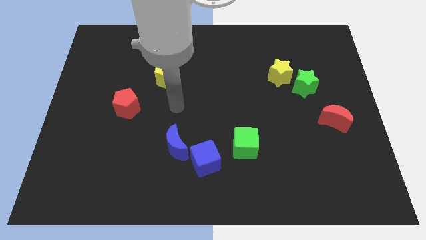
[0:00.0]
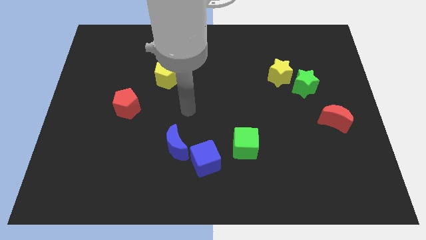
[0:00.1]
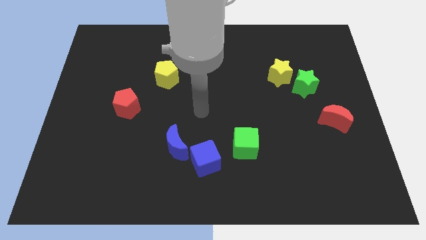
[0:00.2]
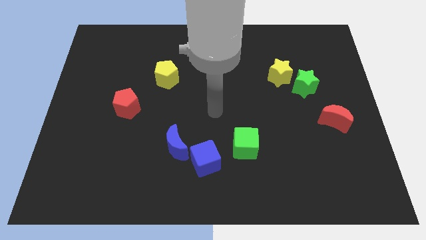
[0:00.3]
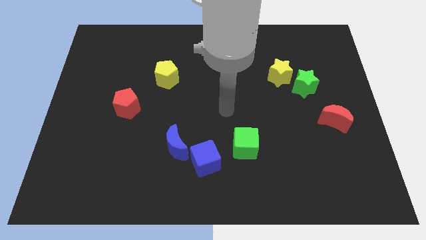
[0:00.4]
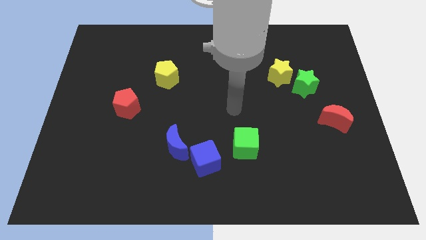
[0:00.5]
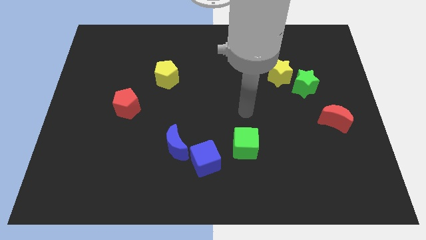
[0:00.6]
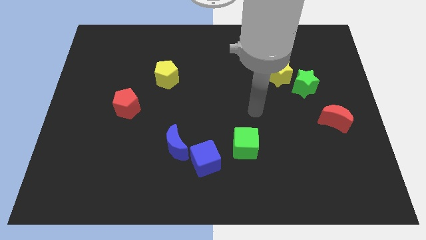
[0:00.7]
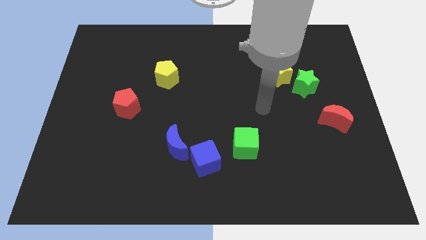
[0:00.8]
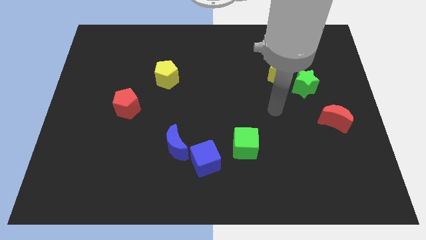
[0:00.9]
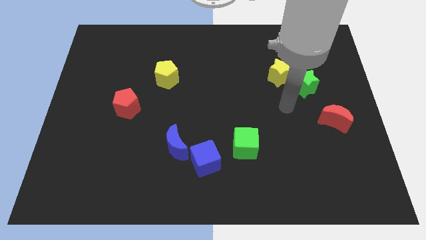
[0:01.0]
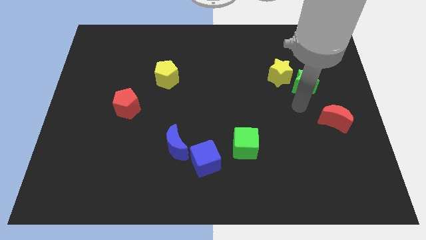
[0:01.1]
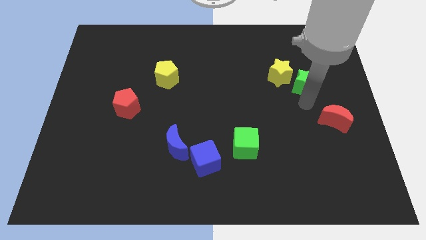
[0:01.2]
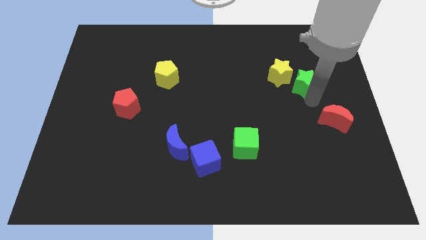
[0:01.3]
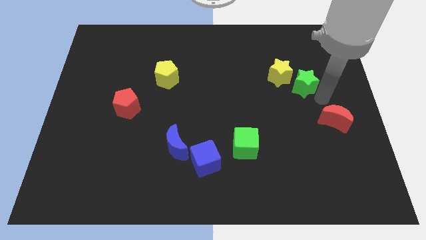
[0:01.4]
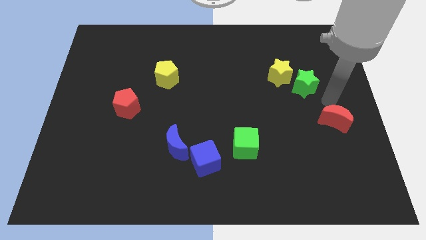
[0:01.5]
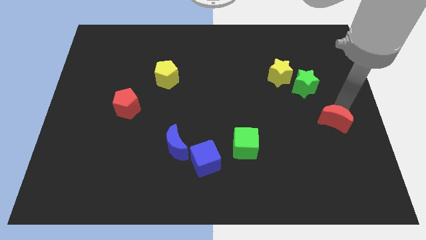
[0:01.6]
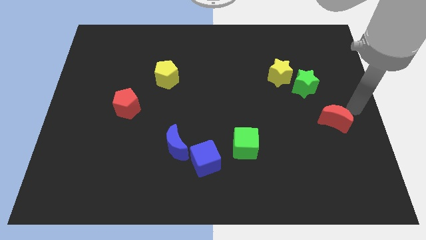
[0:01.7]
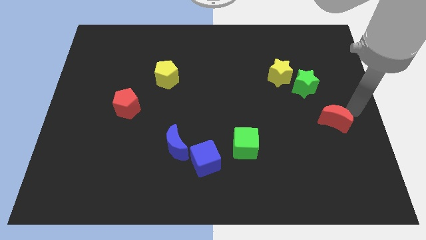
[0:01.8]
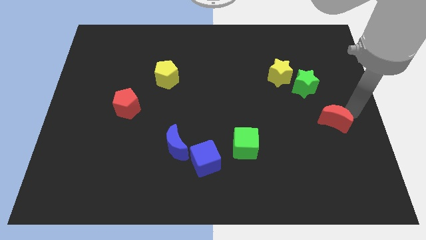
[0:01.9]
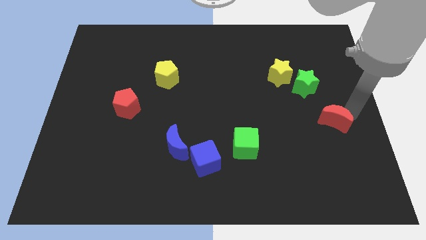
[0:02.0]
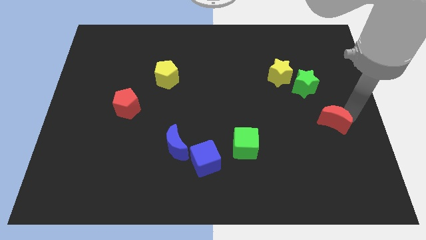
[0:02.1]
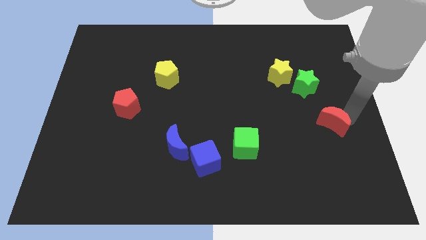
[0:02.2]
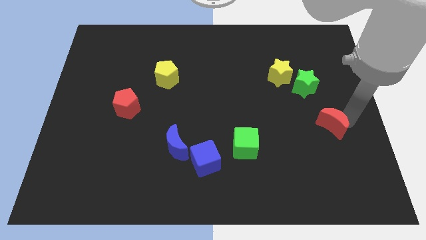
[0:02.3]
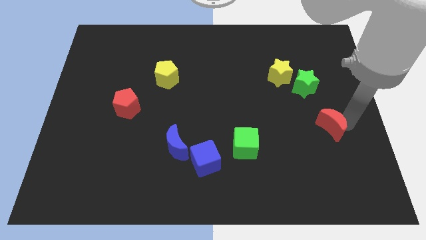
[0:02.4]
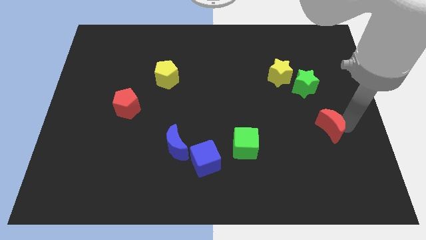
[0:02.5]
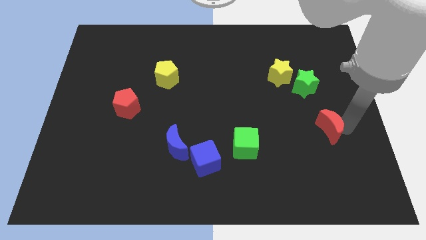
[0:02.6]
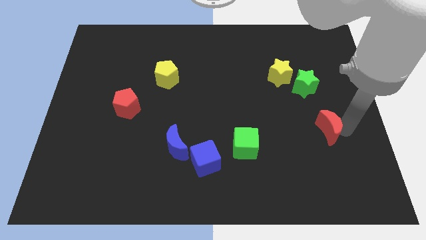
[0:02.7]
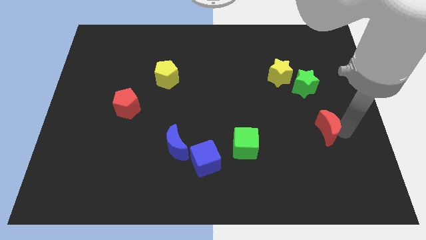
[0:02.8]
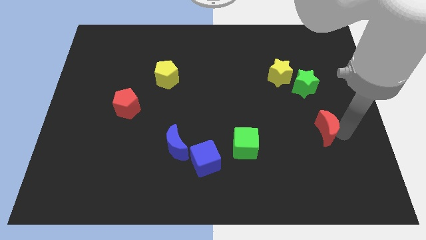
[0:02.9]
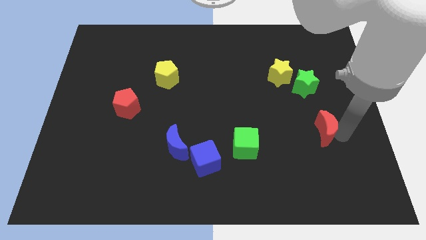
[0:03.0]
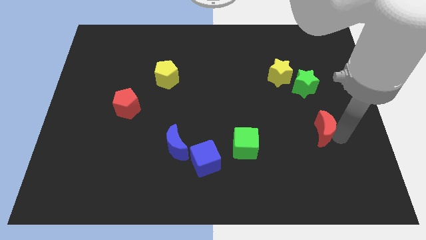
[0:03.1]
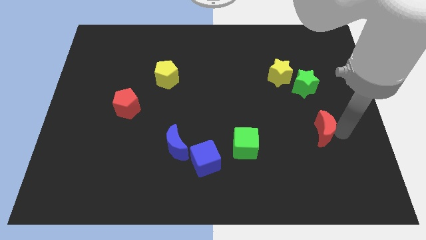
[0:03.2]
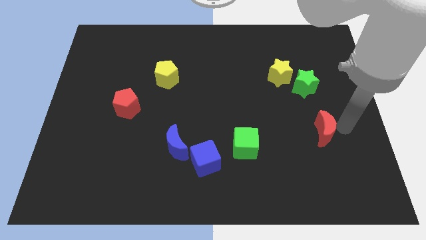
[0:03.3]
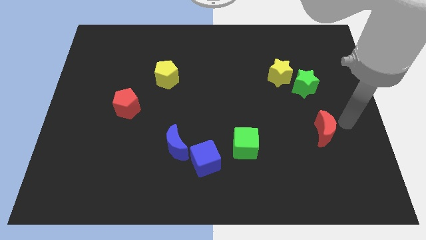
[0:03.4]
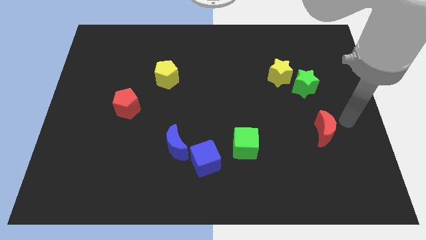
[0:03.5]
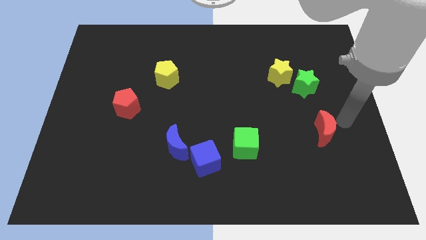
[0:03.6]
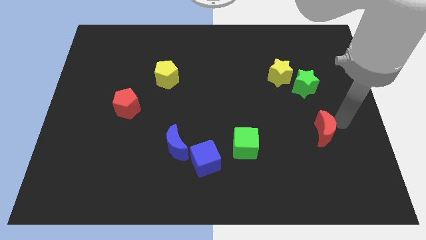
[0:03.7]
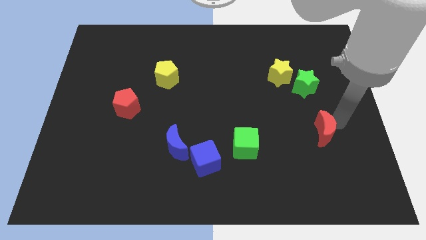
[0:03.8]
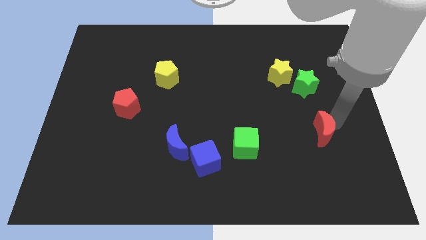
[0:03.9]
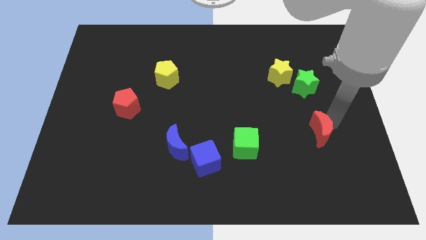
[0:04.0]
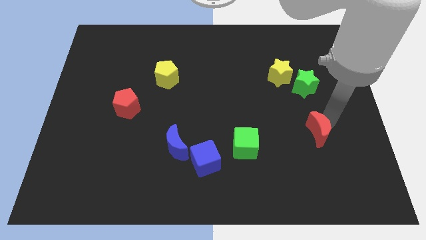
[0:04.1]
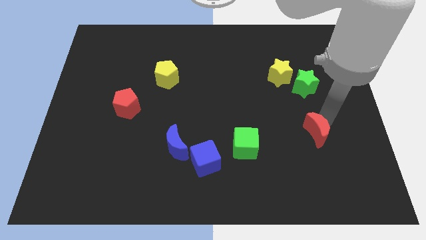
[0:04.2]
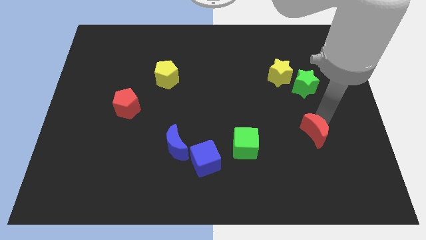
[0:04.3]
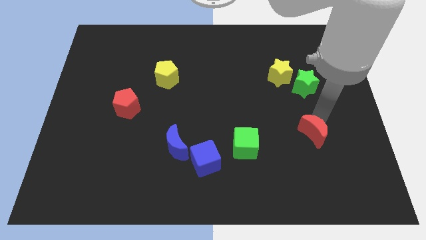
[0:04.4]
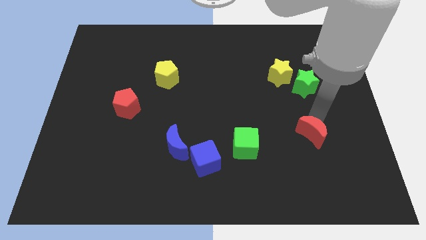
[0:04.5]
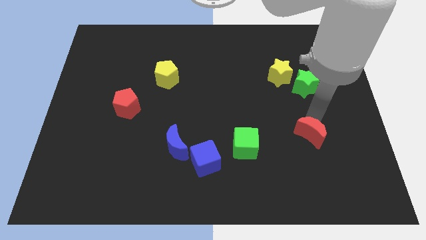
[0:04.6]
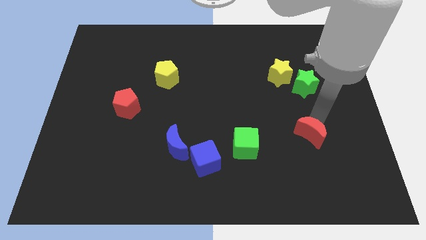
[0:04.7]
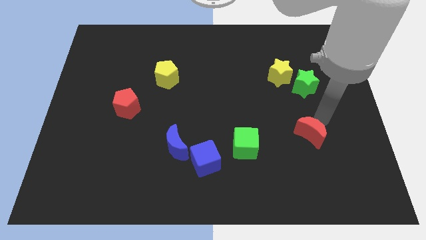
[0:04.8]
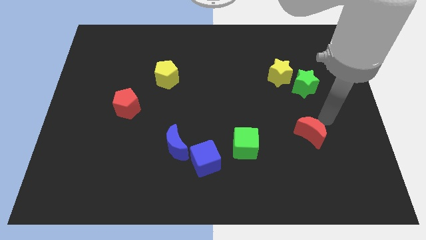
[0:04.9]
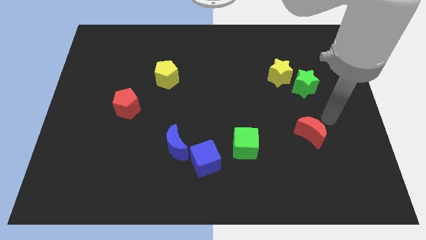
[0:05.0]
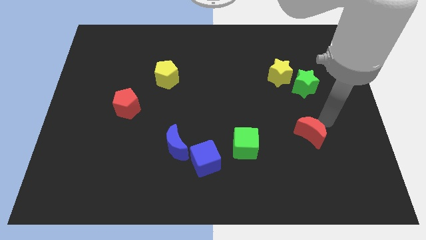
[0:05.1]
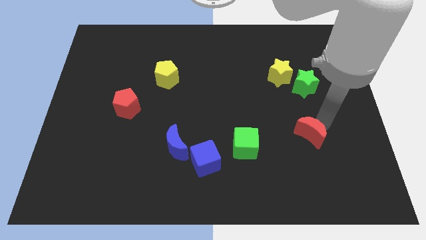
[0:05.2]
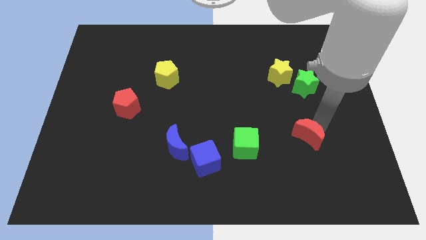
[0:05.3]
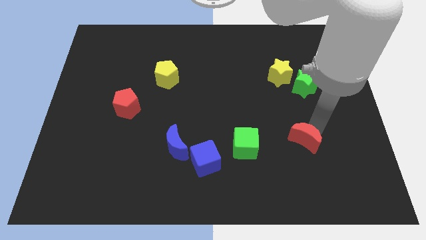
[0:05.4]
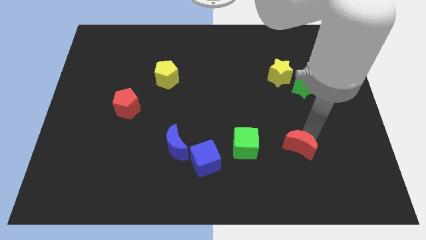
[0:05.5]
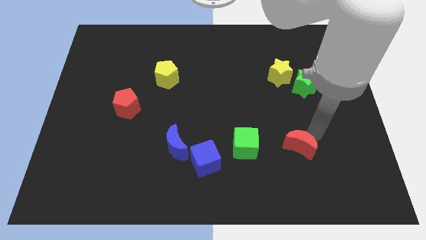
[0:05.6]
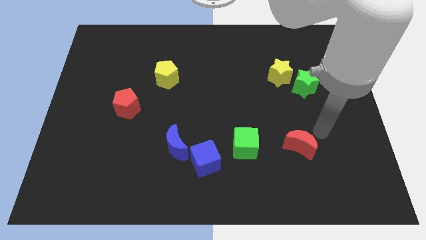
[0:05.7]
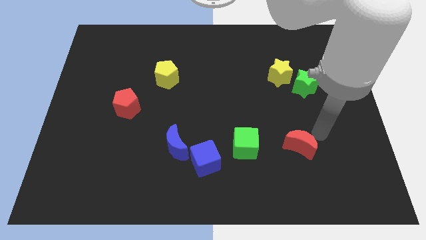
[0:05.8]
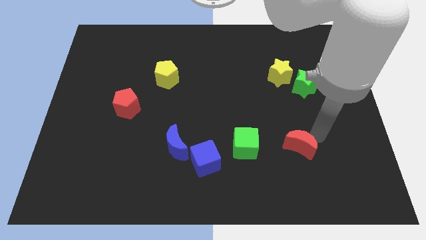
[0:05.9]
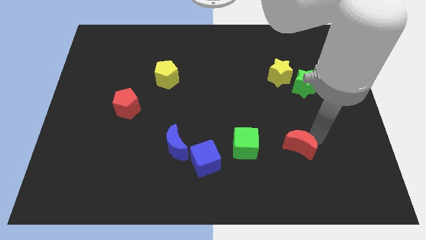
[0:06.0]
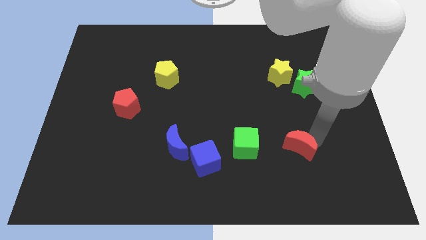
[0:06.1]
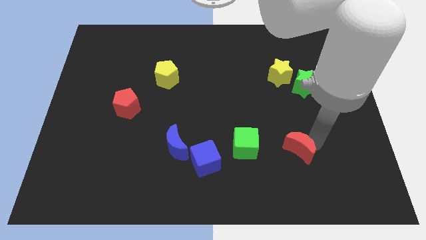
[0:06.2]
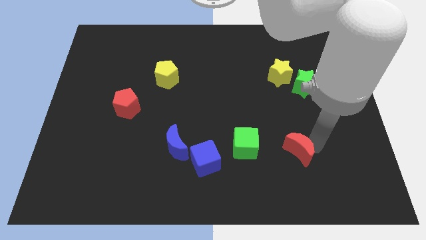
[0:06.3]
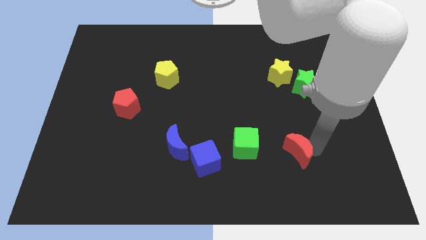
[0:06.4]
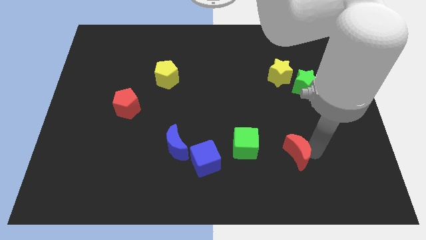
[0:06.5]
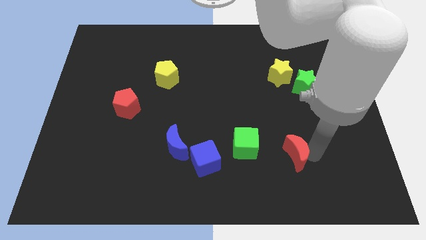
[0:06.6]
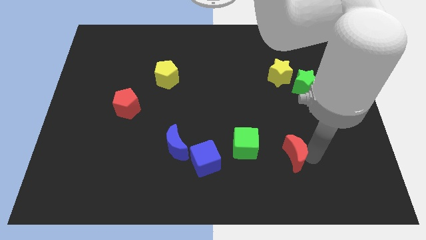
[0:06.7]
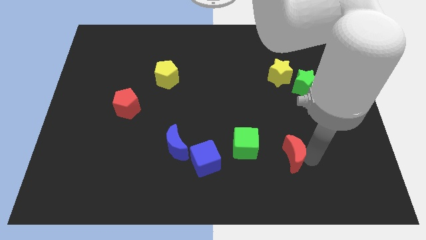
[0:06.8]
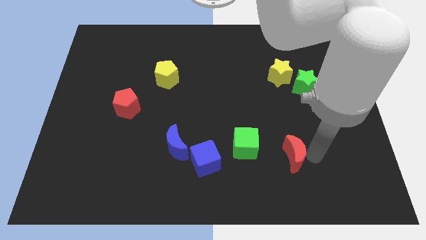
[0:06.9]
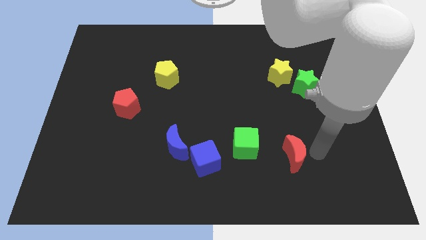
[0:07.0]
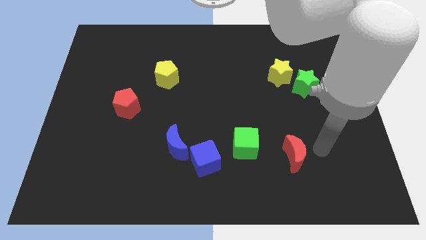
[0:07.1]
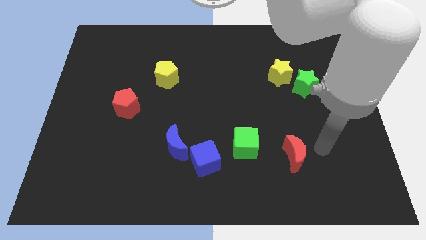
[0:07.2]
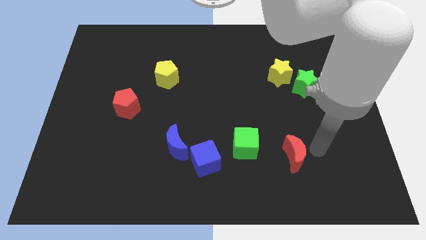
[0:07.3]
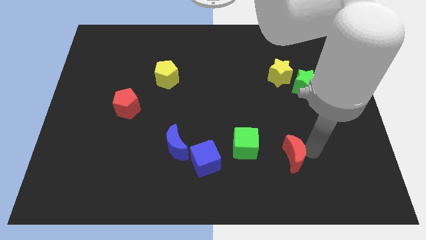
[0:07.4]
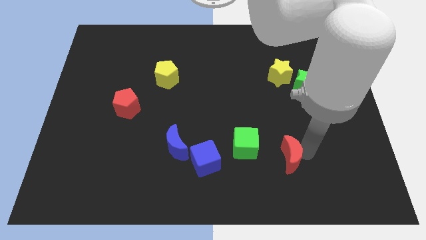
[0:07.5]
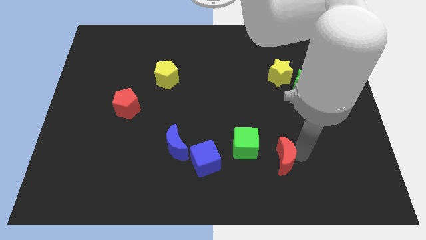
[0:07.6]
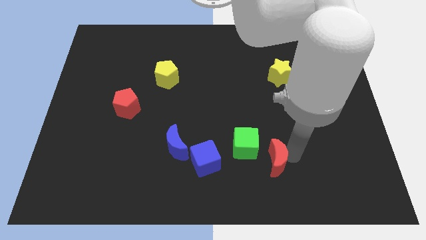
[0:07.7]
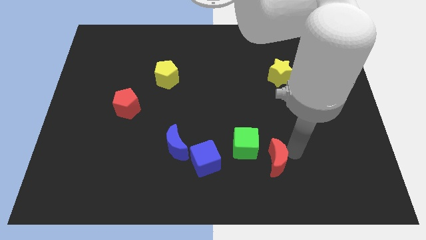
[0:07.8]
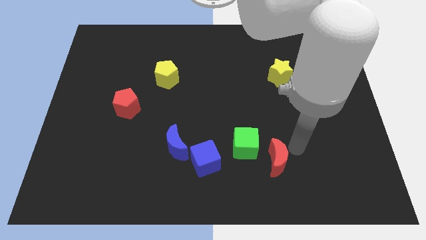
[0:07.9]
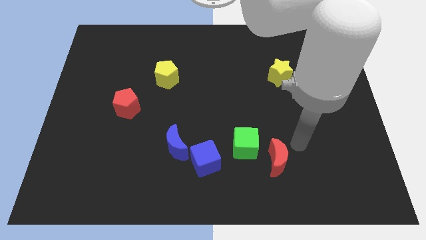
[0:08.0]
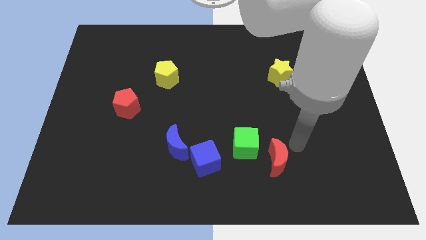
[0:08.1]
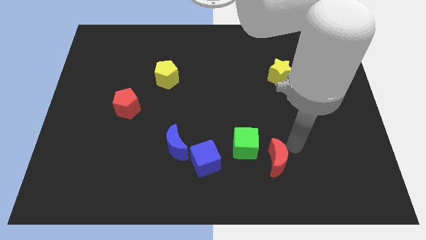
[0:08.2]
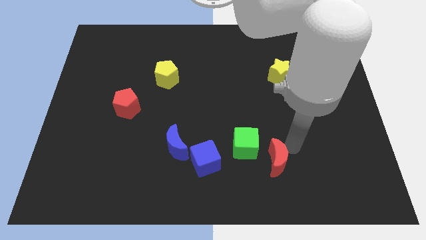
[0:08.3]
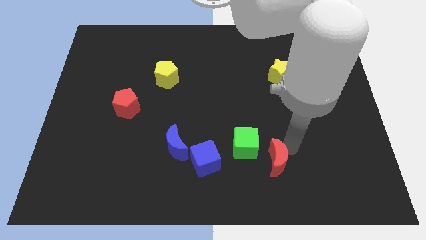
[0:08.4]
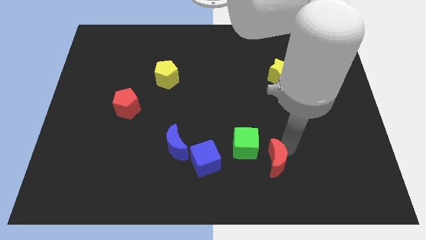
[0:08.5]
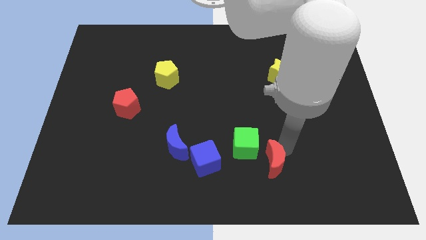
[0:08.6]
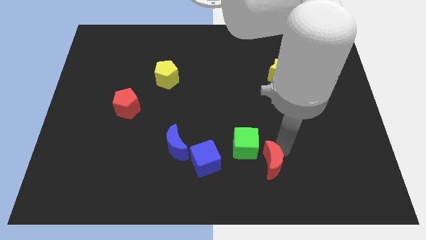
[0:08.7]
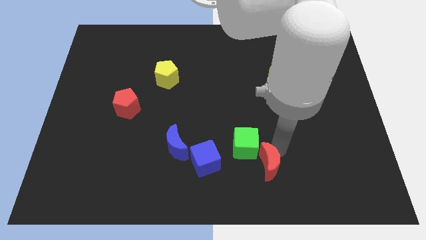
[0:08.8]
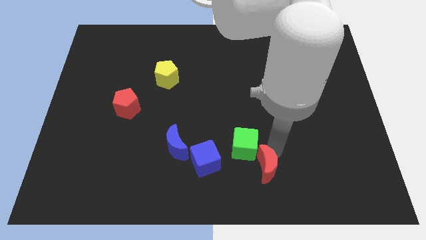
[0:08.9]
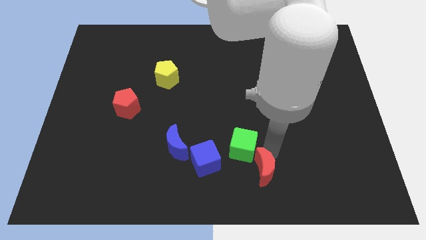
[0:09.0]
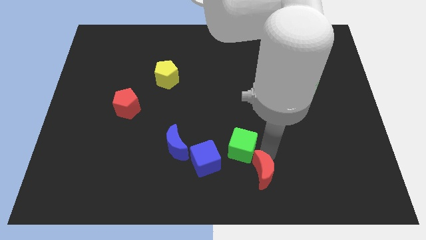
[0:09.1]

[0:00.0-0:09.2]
push the red moon to the bottom side
